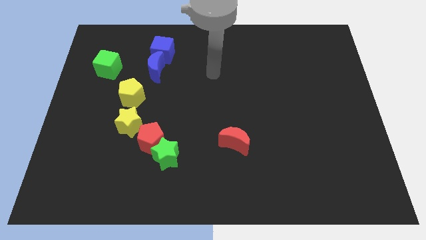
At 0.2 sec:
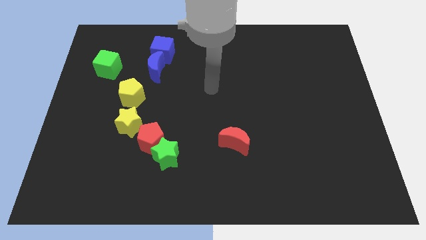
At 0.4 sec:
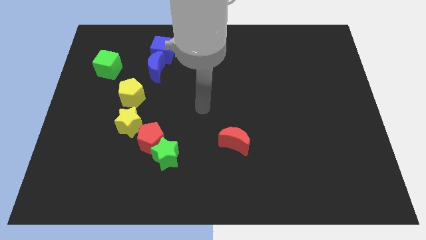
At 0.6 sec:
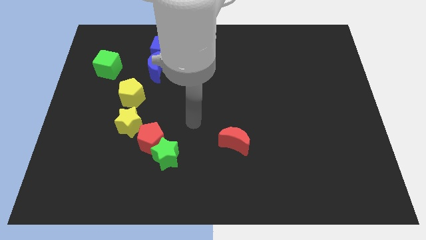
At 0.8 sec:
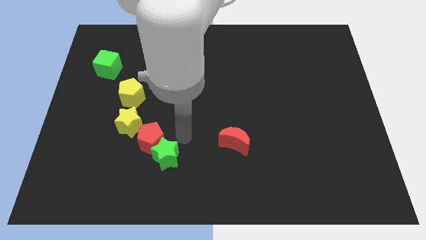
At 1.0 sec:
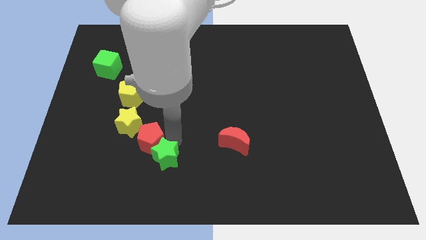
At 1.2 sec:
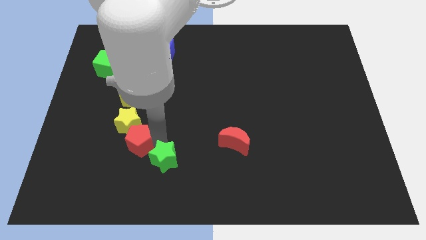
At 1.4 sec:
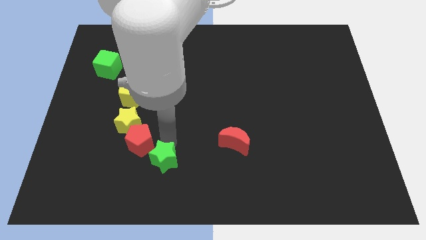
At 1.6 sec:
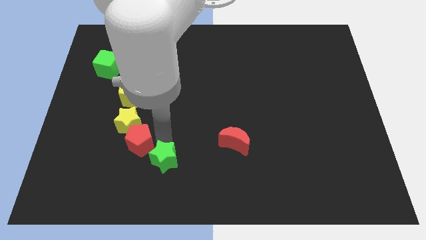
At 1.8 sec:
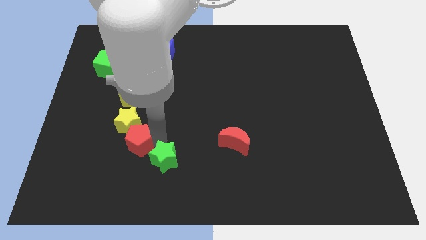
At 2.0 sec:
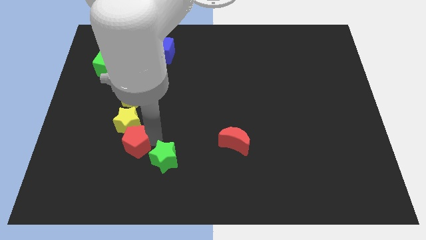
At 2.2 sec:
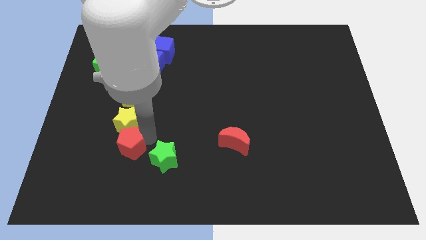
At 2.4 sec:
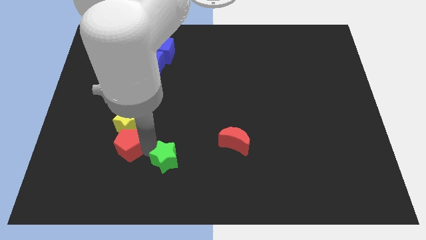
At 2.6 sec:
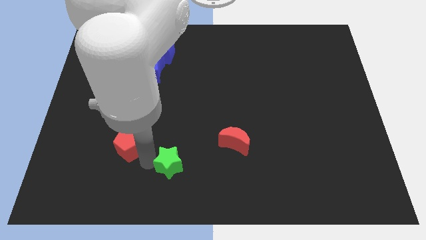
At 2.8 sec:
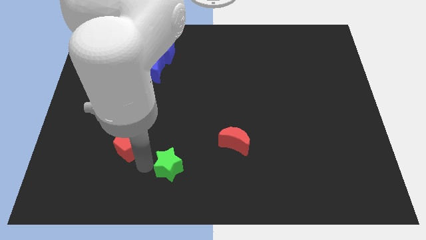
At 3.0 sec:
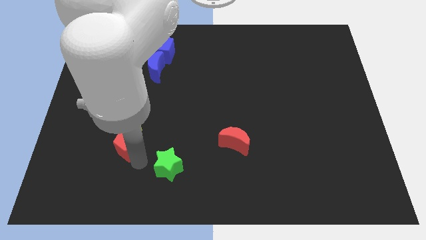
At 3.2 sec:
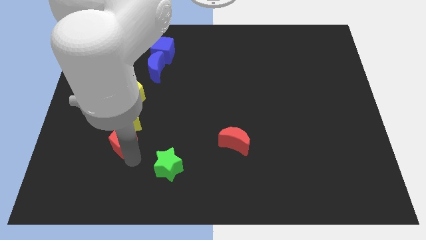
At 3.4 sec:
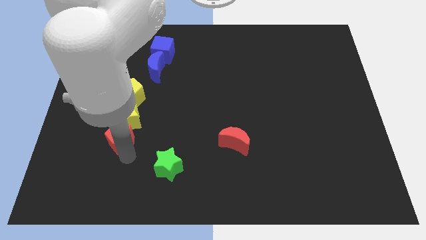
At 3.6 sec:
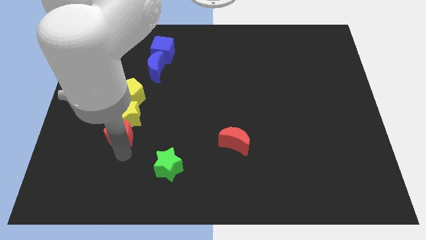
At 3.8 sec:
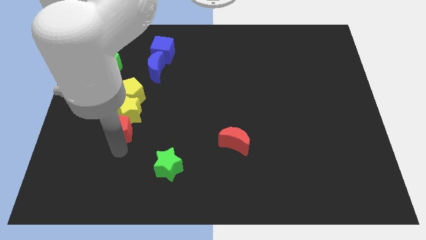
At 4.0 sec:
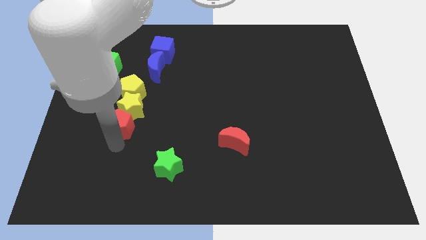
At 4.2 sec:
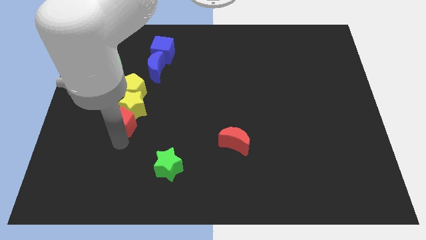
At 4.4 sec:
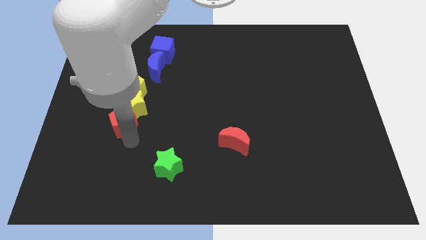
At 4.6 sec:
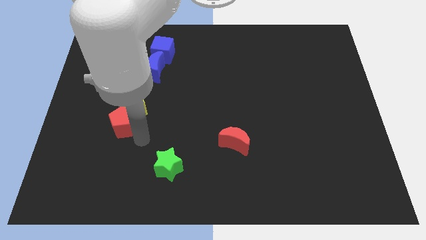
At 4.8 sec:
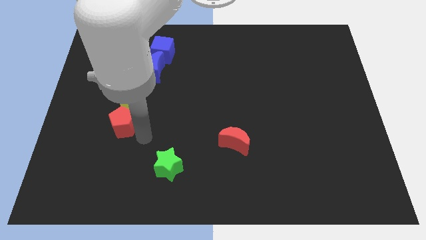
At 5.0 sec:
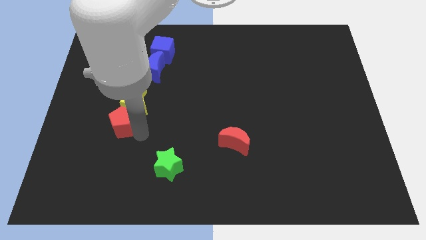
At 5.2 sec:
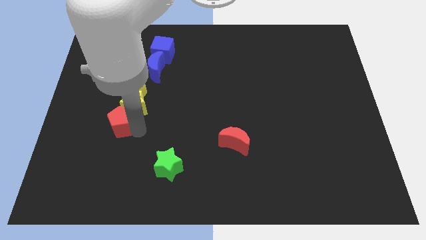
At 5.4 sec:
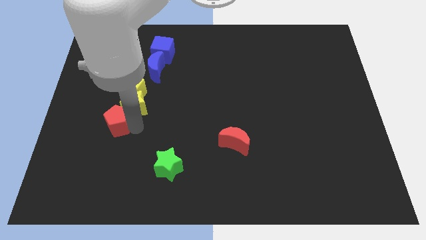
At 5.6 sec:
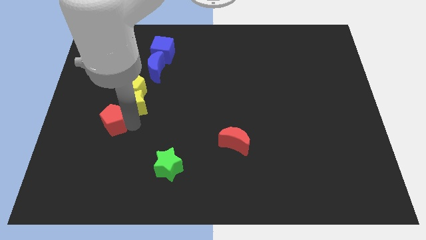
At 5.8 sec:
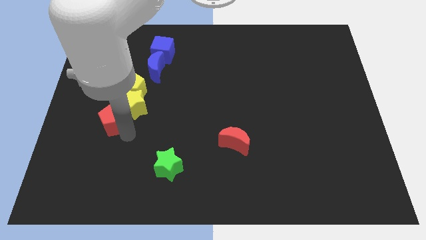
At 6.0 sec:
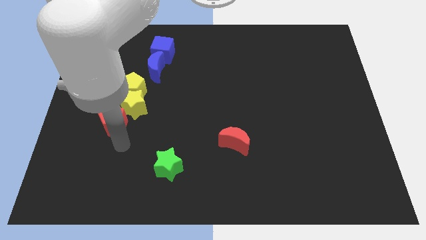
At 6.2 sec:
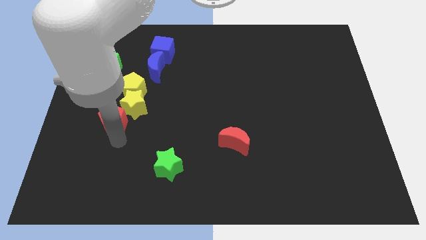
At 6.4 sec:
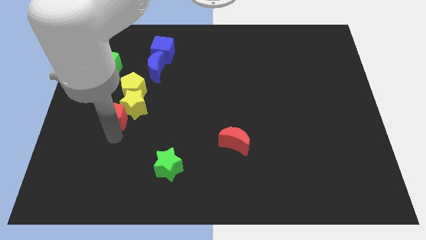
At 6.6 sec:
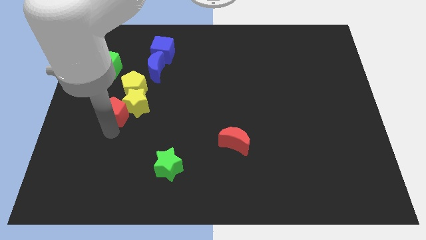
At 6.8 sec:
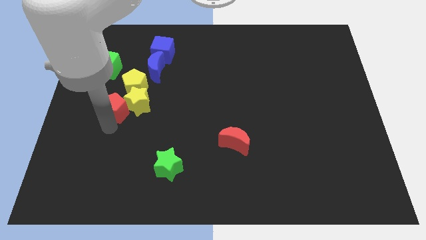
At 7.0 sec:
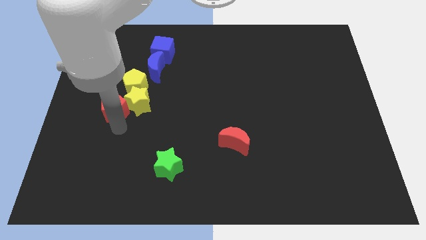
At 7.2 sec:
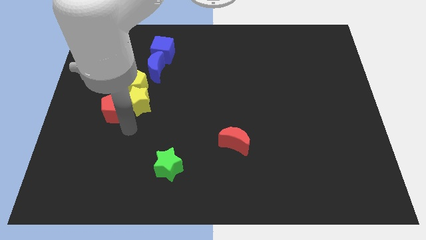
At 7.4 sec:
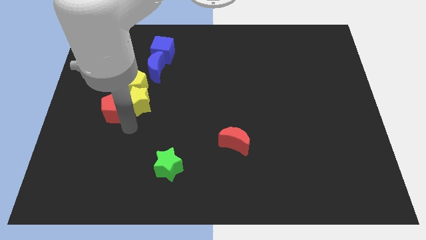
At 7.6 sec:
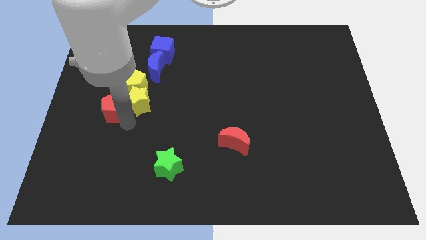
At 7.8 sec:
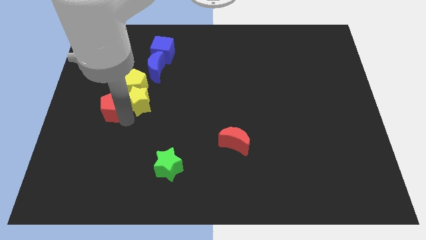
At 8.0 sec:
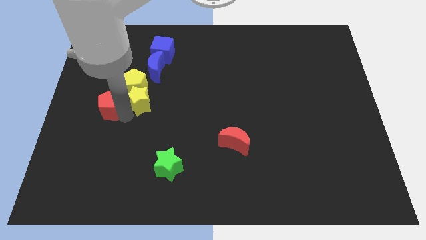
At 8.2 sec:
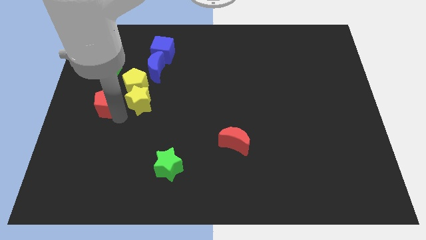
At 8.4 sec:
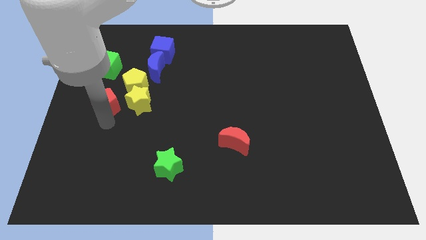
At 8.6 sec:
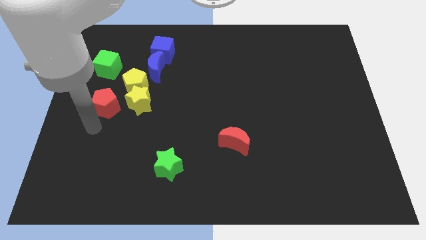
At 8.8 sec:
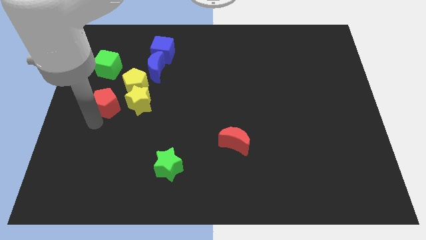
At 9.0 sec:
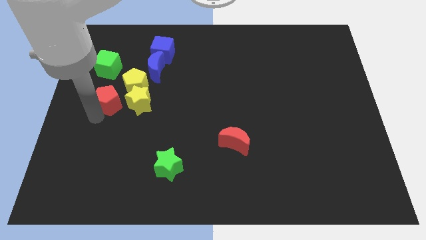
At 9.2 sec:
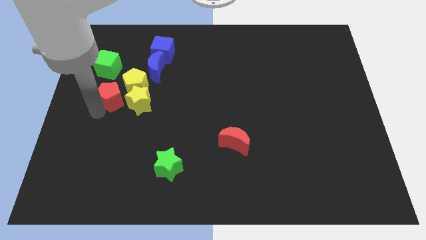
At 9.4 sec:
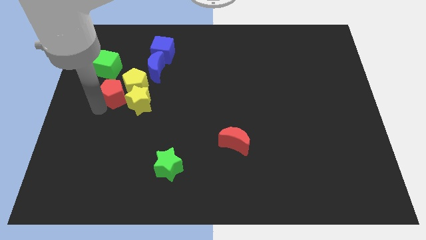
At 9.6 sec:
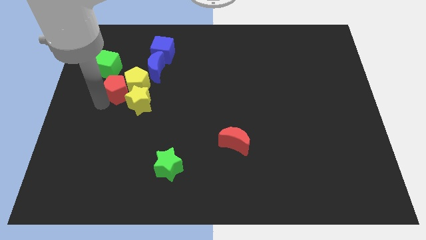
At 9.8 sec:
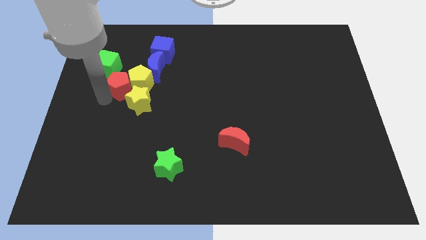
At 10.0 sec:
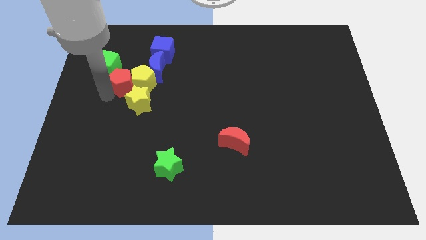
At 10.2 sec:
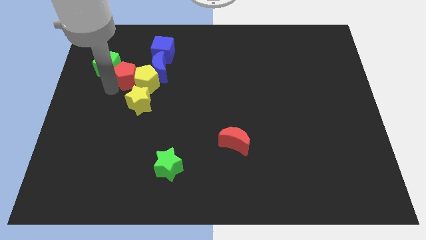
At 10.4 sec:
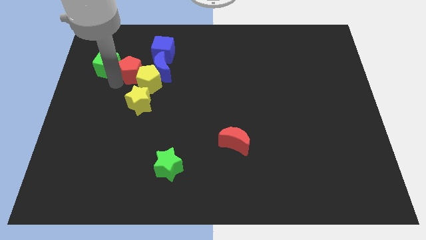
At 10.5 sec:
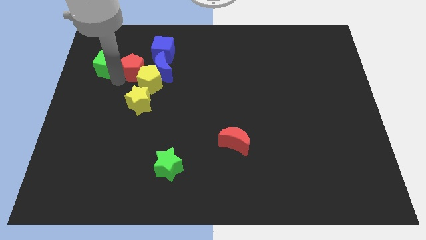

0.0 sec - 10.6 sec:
put the red pentagon to the top side of the yellow pentagon

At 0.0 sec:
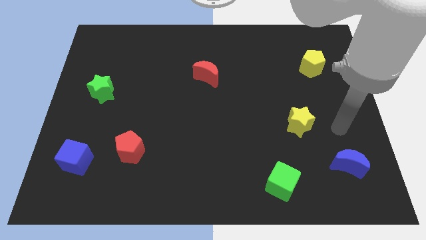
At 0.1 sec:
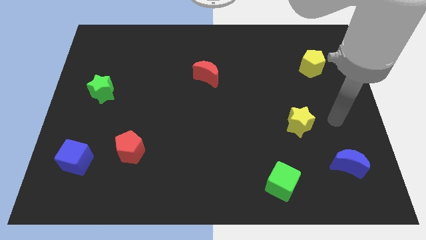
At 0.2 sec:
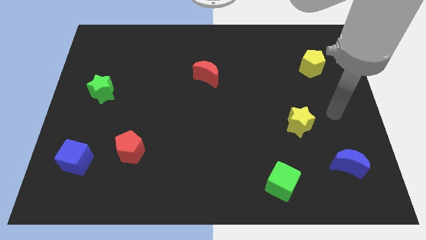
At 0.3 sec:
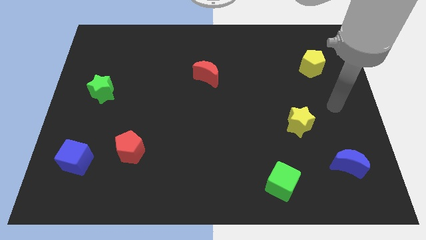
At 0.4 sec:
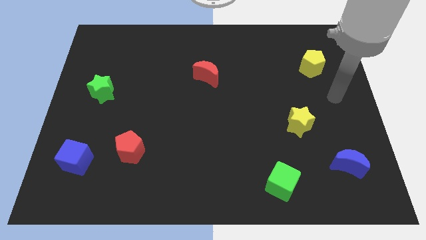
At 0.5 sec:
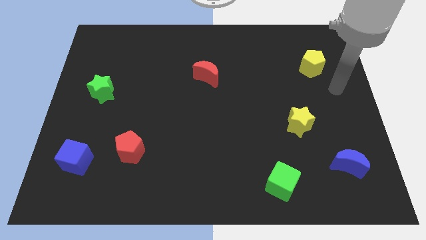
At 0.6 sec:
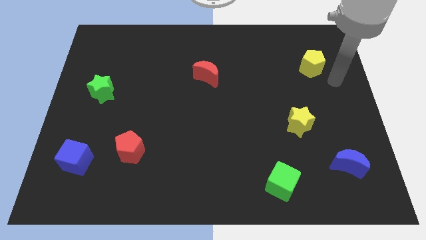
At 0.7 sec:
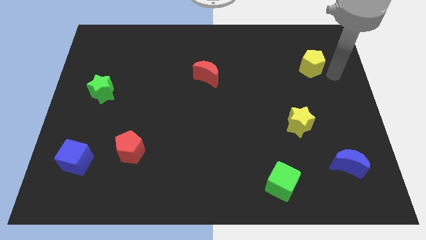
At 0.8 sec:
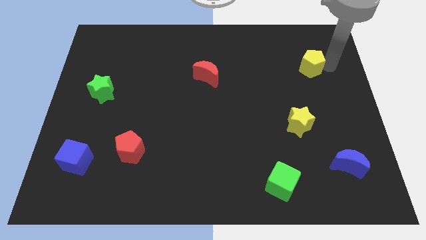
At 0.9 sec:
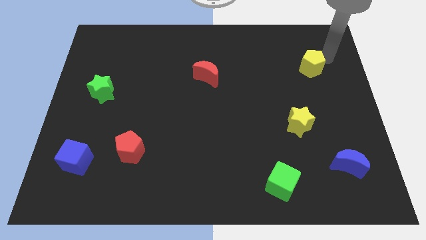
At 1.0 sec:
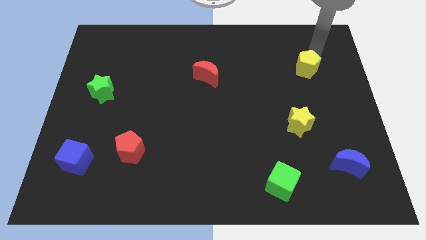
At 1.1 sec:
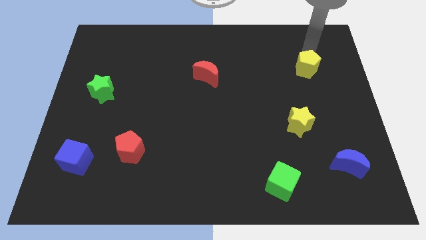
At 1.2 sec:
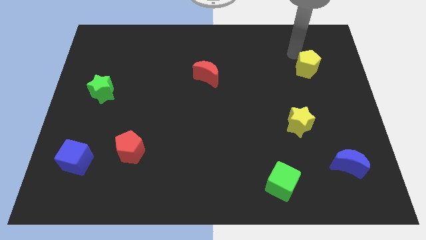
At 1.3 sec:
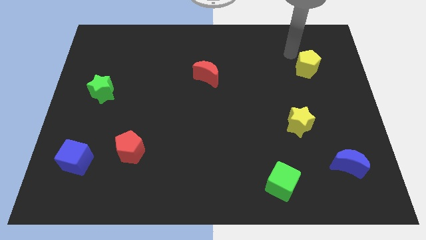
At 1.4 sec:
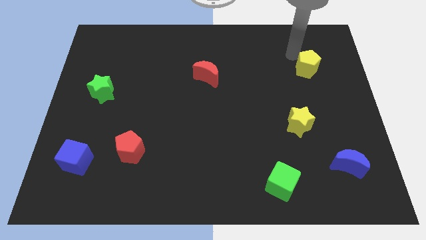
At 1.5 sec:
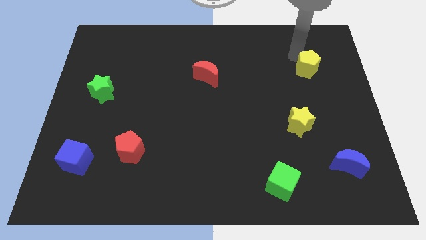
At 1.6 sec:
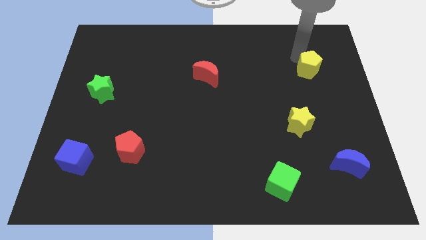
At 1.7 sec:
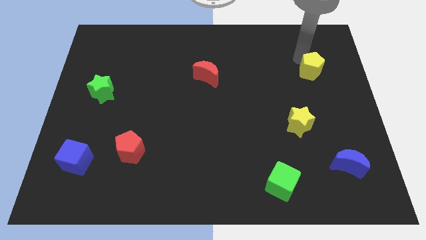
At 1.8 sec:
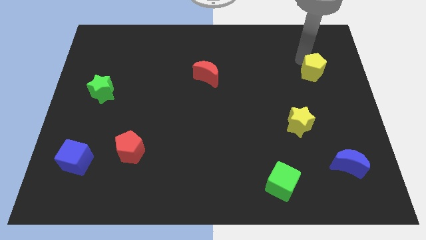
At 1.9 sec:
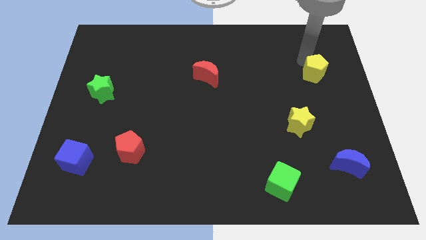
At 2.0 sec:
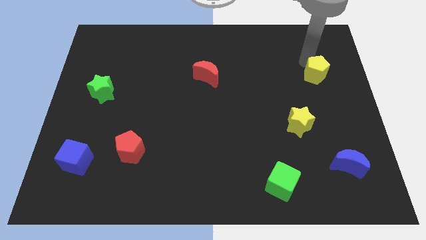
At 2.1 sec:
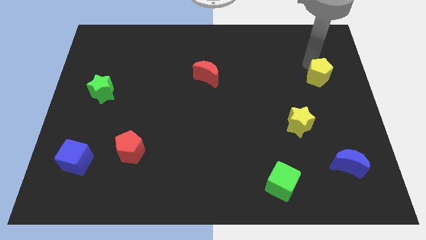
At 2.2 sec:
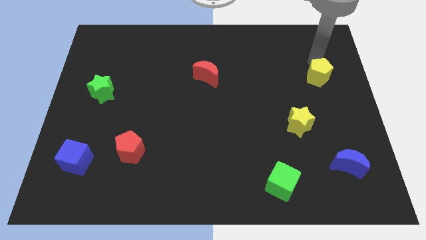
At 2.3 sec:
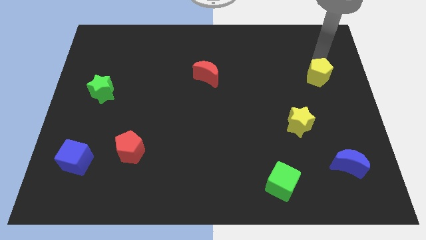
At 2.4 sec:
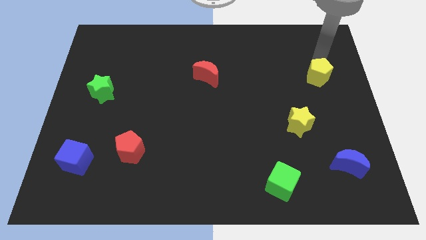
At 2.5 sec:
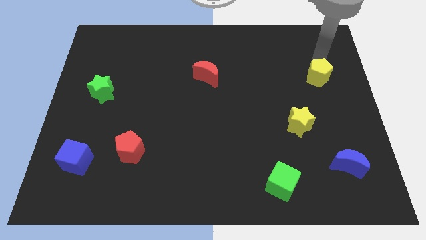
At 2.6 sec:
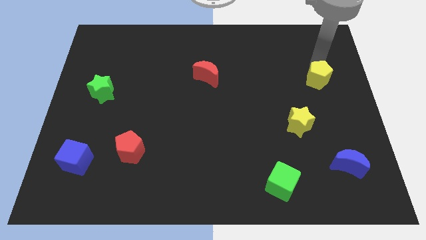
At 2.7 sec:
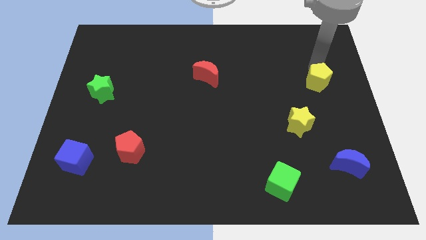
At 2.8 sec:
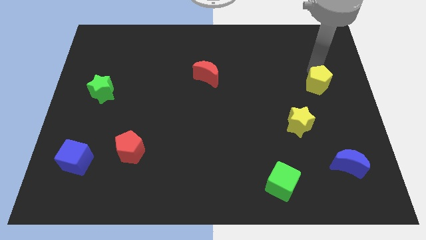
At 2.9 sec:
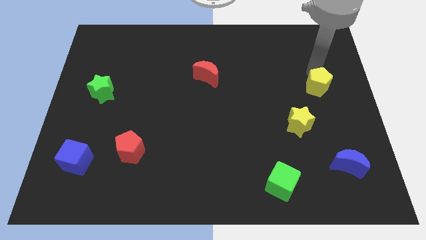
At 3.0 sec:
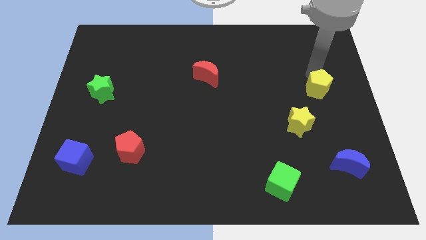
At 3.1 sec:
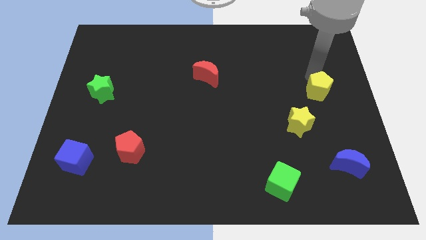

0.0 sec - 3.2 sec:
slide the yellow pentagon to the top right of the yellow star
